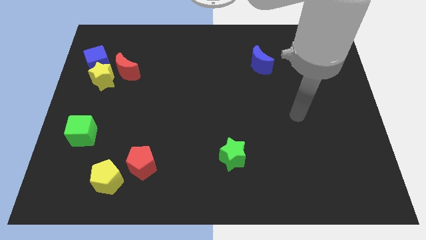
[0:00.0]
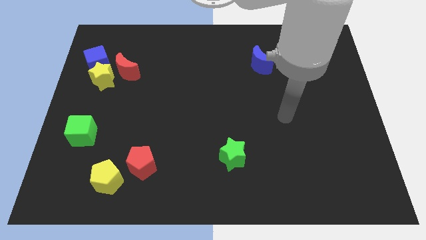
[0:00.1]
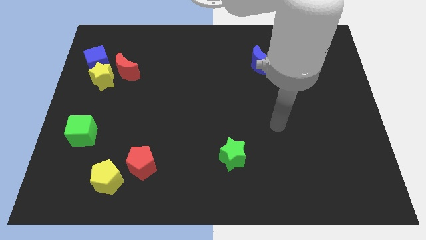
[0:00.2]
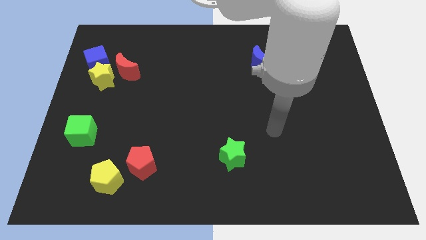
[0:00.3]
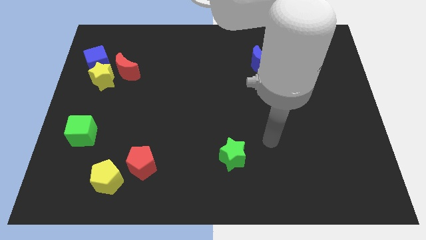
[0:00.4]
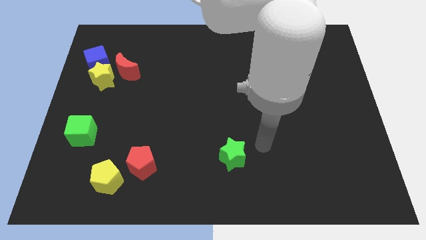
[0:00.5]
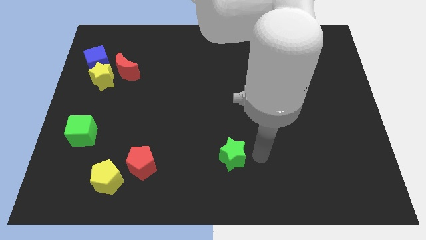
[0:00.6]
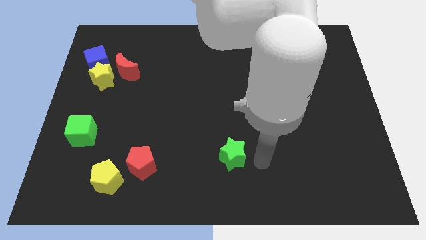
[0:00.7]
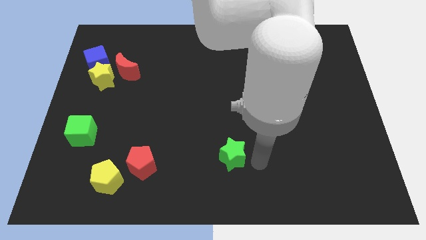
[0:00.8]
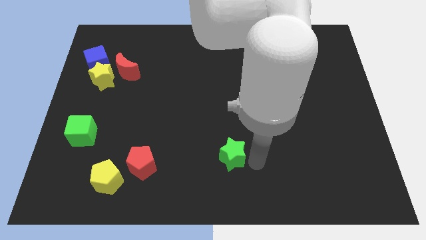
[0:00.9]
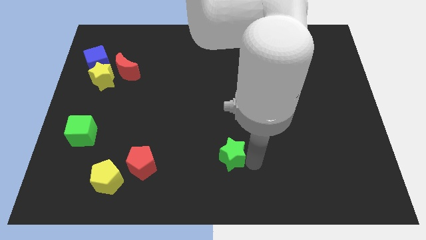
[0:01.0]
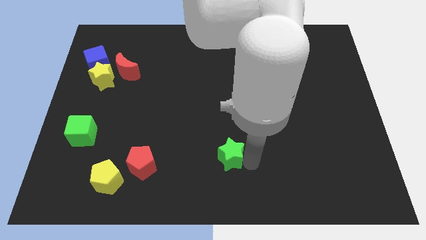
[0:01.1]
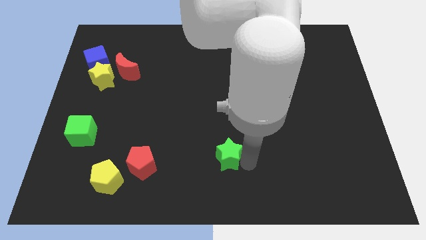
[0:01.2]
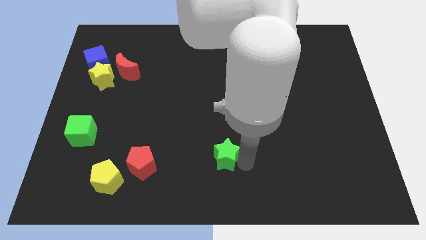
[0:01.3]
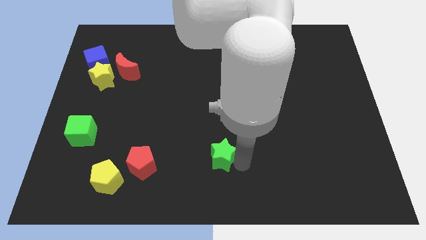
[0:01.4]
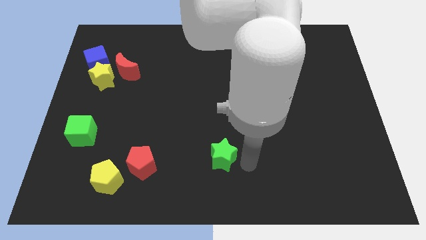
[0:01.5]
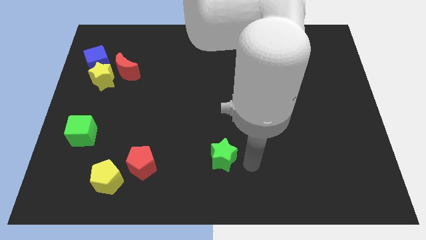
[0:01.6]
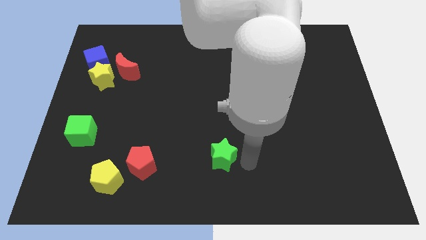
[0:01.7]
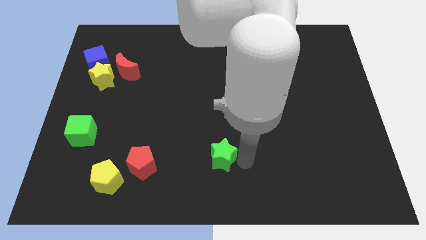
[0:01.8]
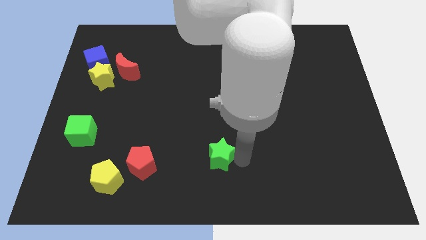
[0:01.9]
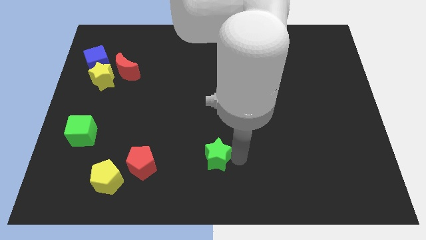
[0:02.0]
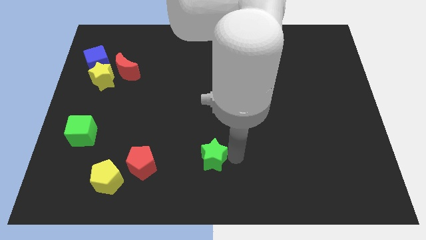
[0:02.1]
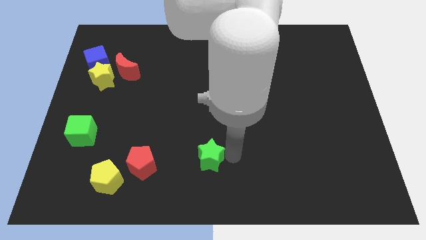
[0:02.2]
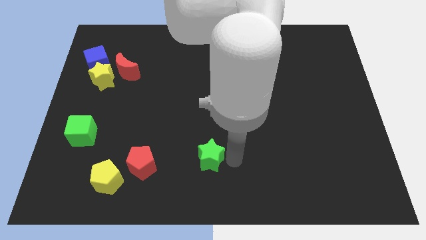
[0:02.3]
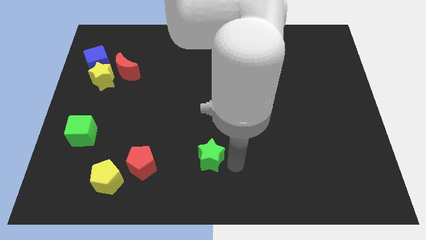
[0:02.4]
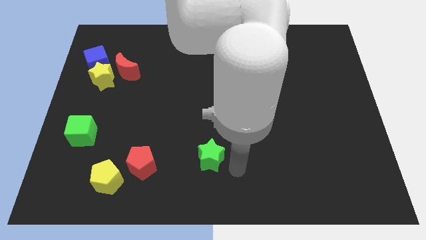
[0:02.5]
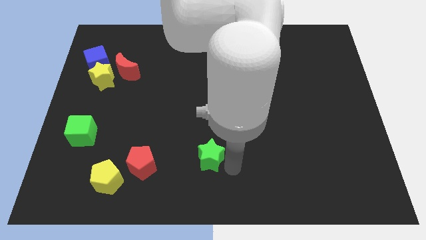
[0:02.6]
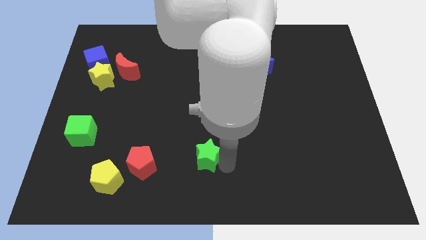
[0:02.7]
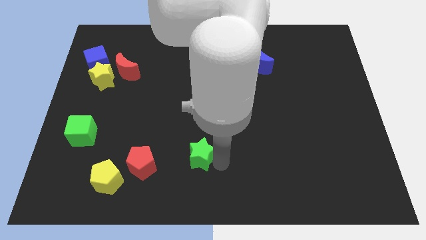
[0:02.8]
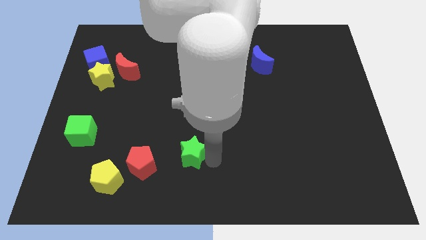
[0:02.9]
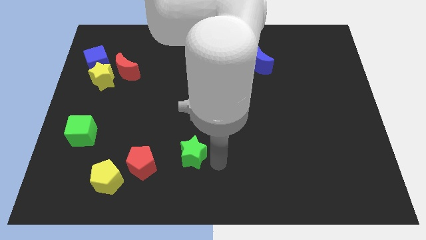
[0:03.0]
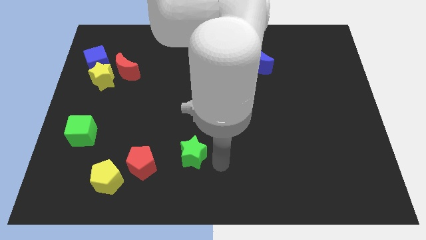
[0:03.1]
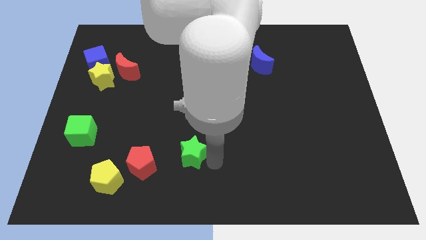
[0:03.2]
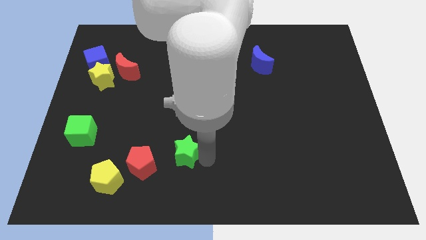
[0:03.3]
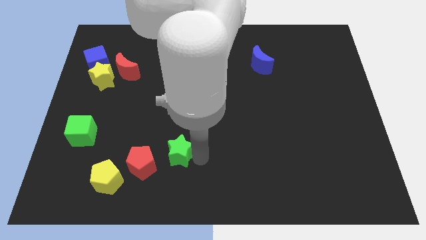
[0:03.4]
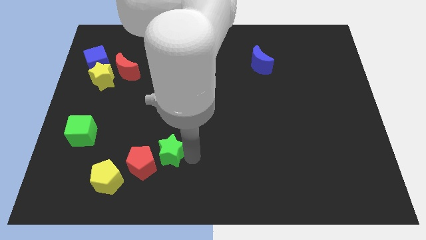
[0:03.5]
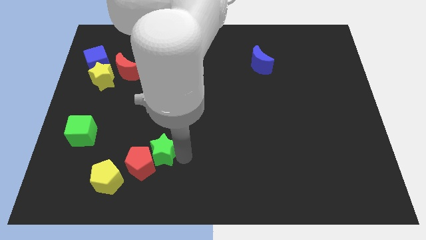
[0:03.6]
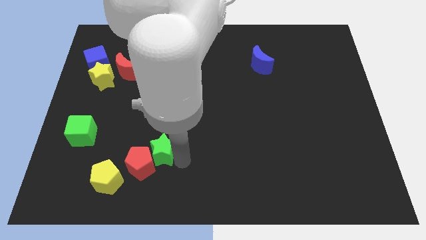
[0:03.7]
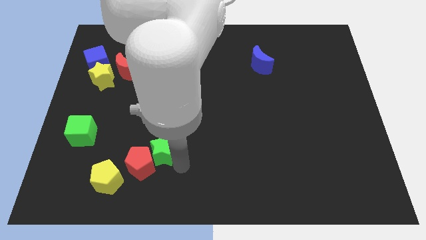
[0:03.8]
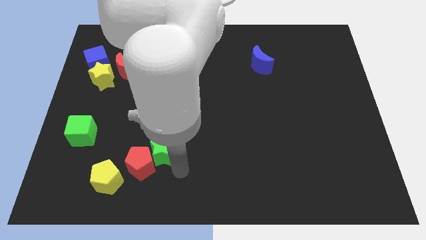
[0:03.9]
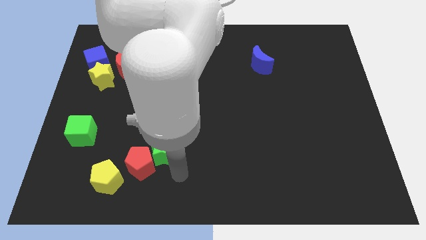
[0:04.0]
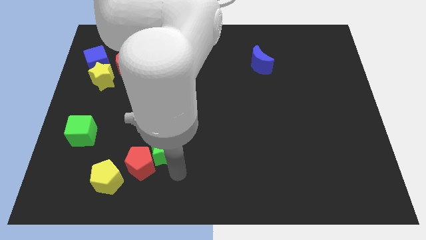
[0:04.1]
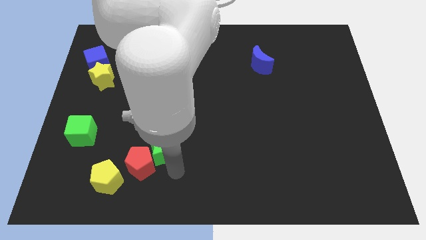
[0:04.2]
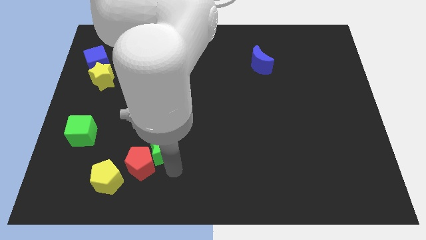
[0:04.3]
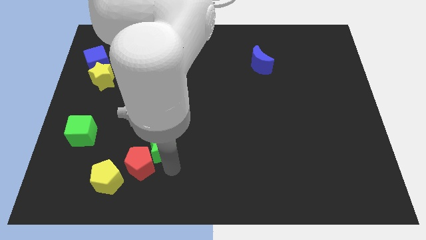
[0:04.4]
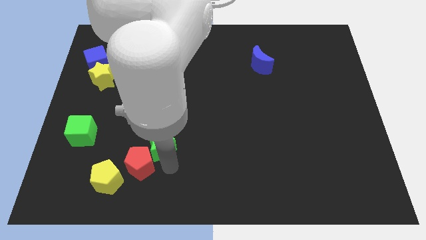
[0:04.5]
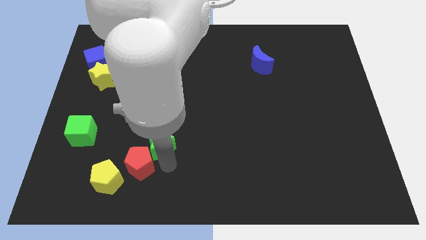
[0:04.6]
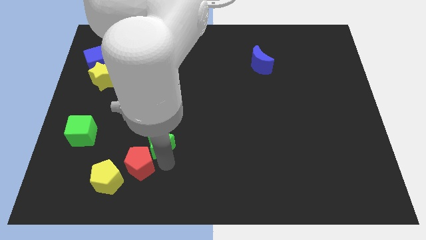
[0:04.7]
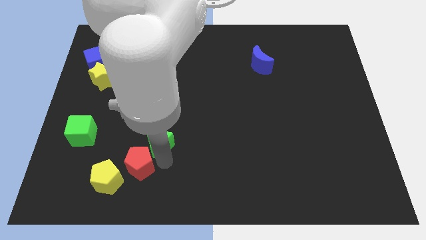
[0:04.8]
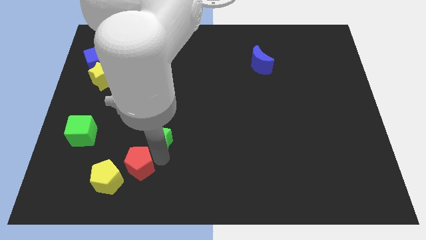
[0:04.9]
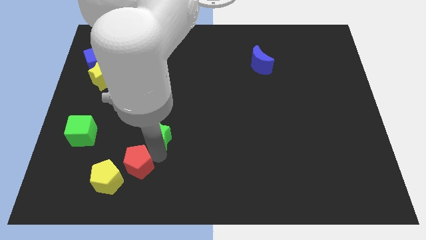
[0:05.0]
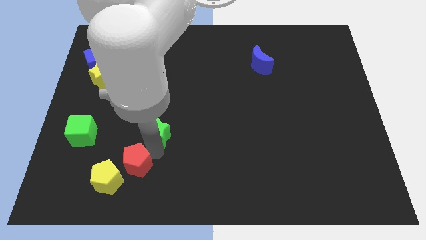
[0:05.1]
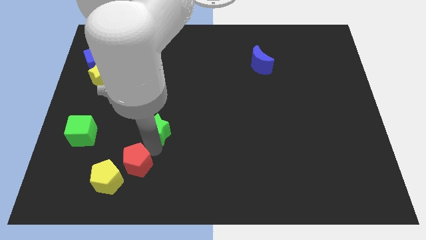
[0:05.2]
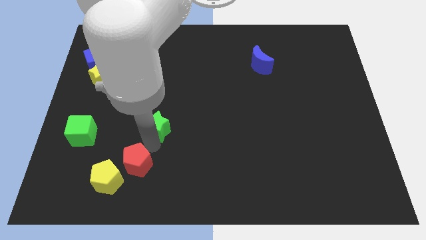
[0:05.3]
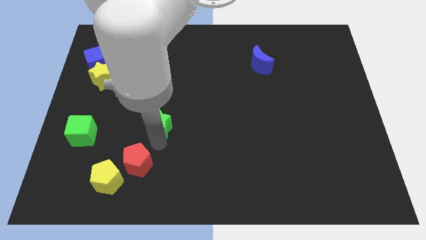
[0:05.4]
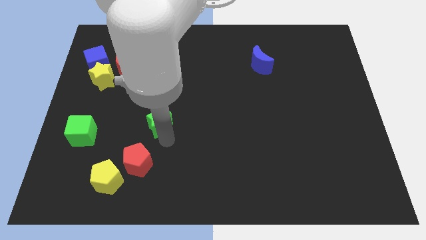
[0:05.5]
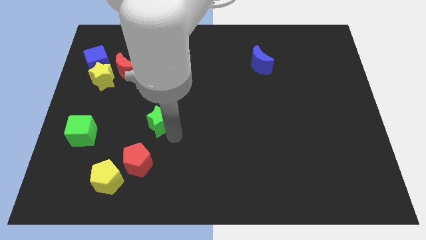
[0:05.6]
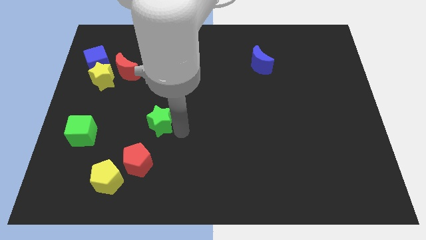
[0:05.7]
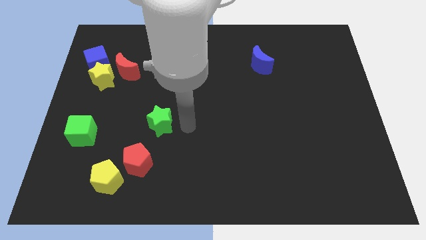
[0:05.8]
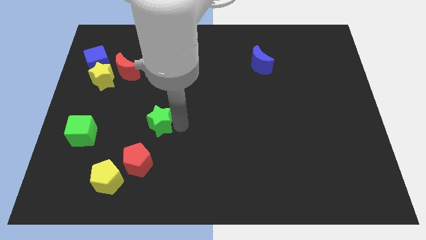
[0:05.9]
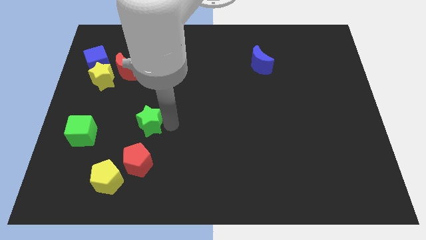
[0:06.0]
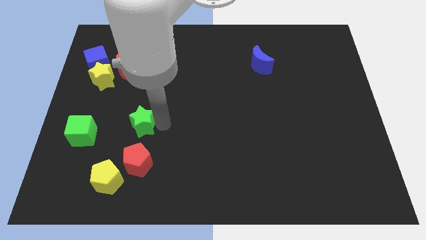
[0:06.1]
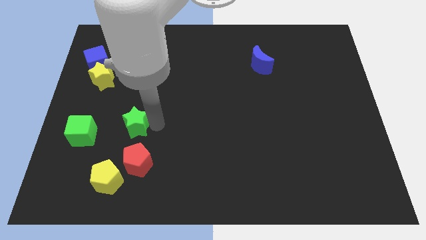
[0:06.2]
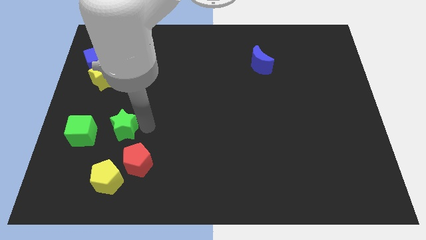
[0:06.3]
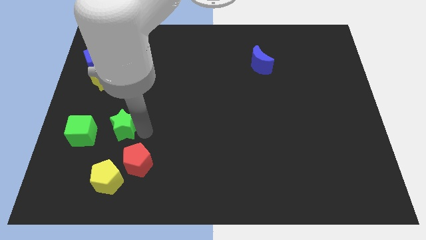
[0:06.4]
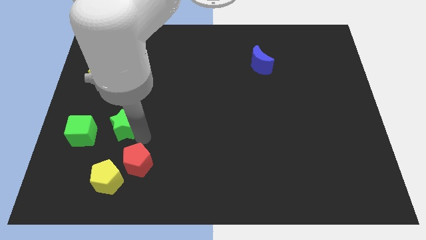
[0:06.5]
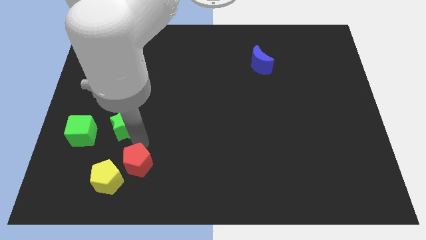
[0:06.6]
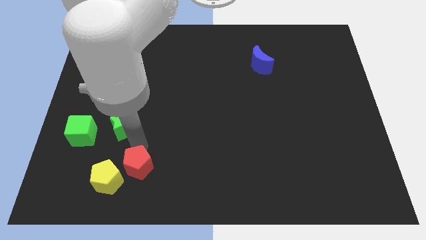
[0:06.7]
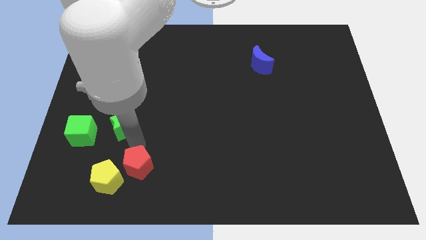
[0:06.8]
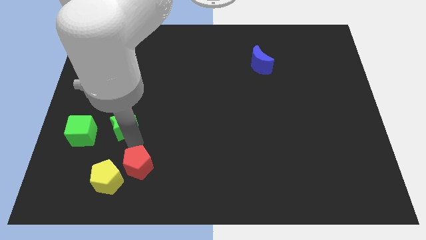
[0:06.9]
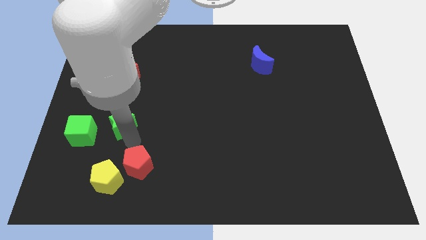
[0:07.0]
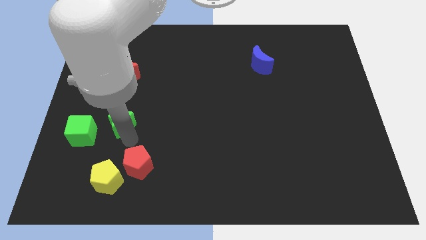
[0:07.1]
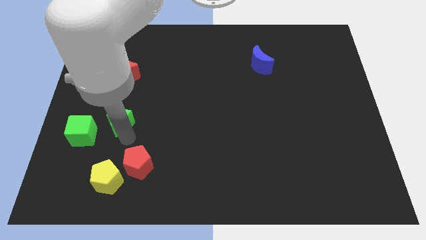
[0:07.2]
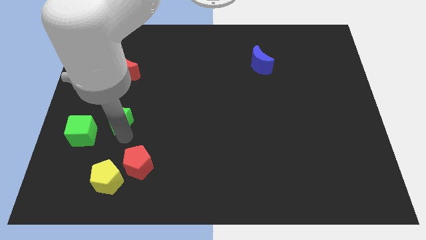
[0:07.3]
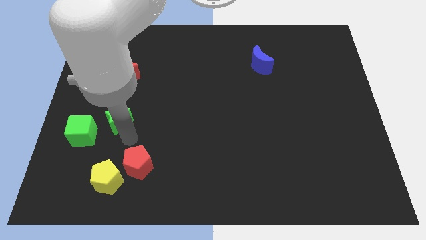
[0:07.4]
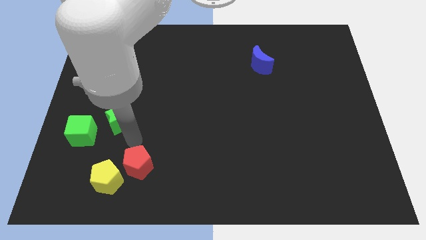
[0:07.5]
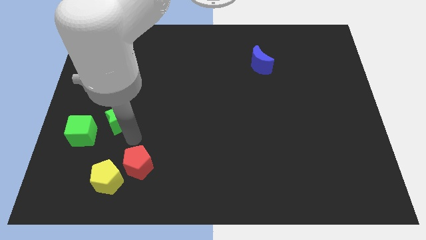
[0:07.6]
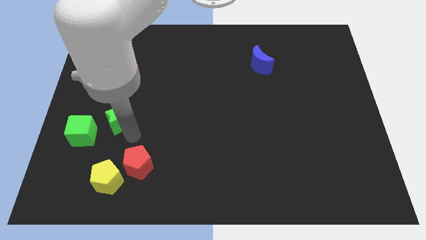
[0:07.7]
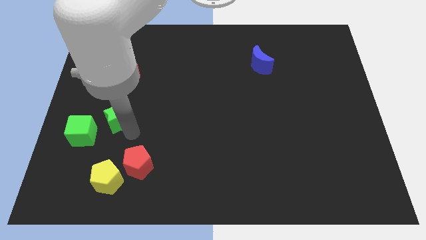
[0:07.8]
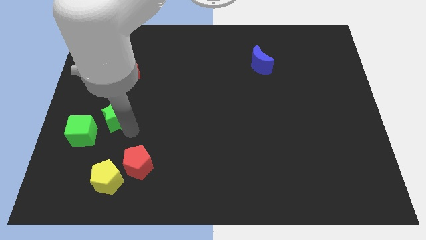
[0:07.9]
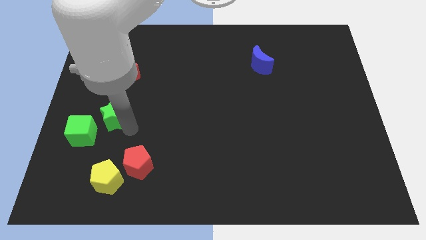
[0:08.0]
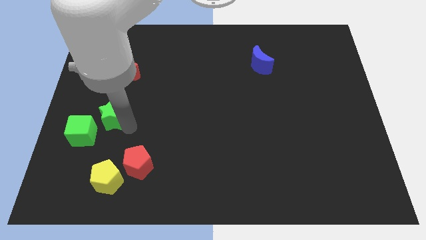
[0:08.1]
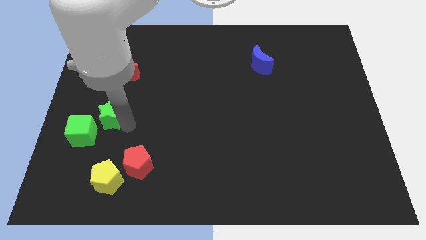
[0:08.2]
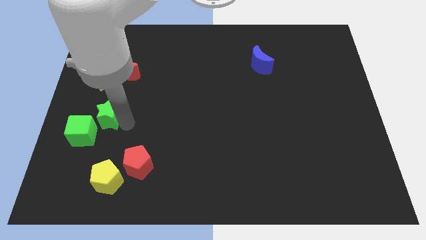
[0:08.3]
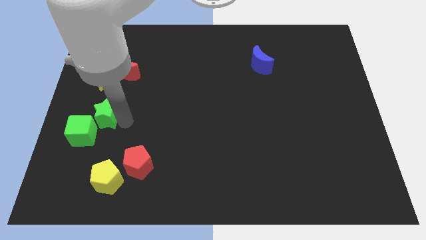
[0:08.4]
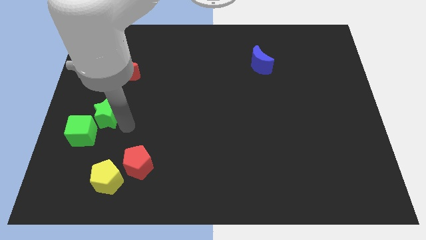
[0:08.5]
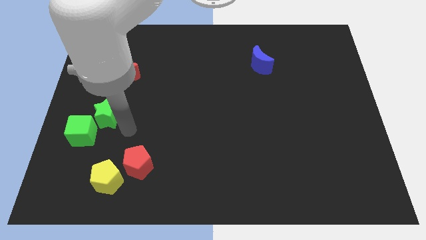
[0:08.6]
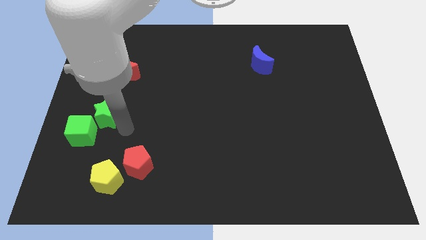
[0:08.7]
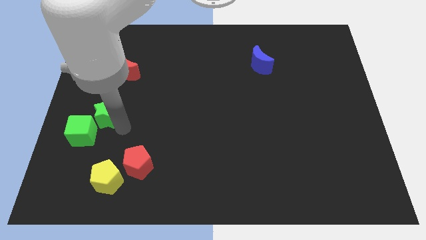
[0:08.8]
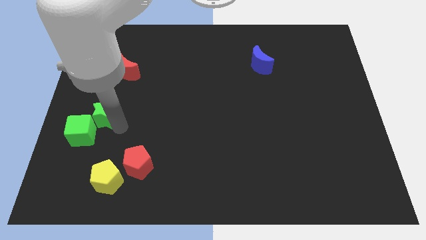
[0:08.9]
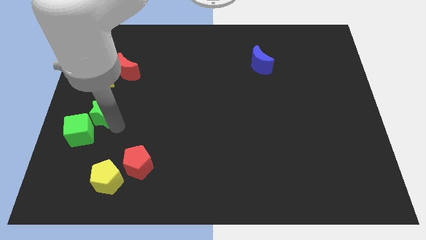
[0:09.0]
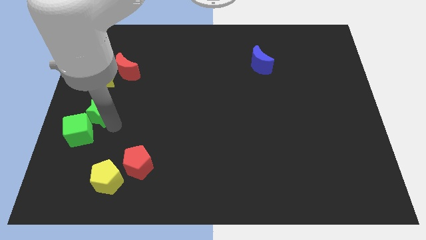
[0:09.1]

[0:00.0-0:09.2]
push the green star to the left side

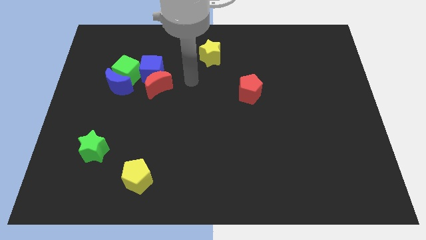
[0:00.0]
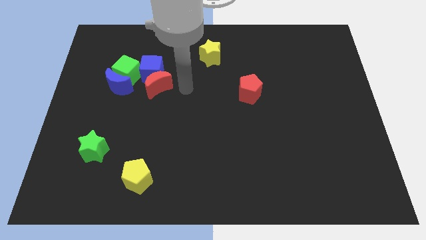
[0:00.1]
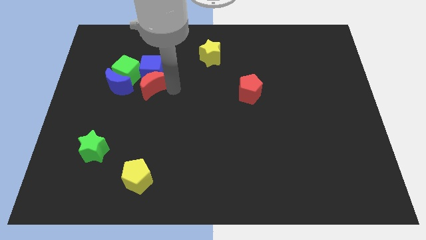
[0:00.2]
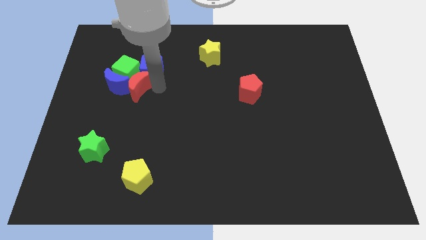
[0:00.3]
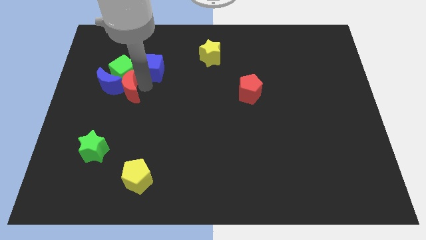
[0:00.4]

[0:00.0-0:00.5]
push the blue moon to the left side
